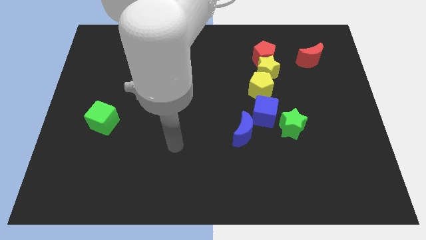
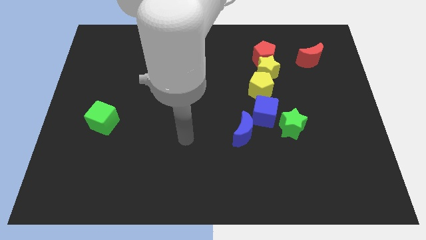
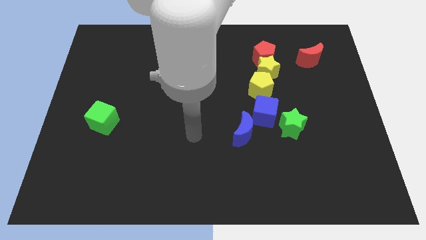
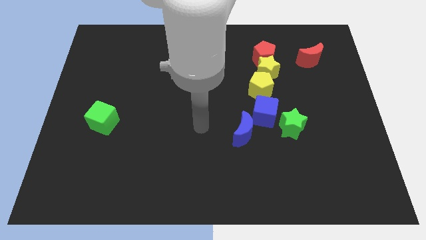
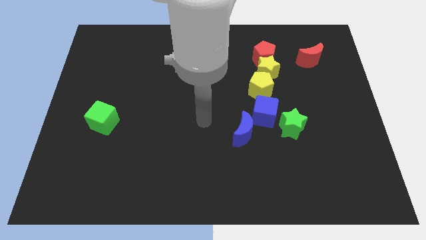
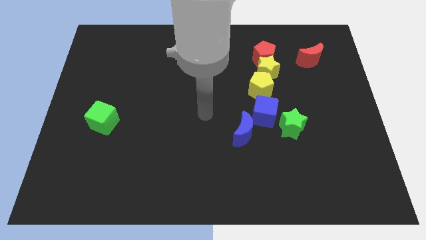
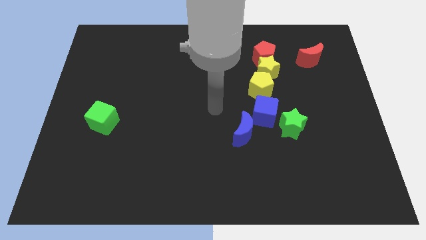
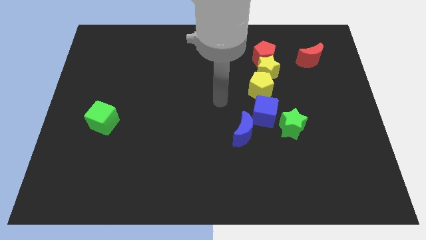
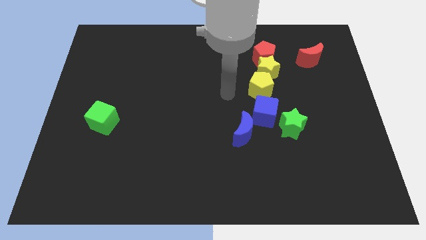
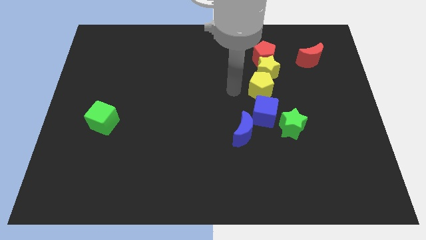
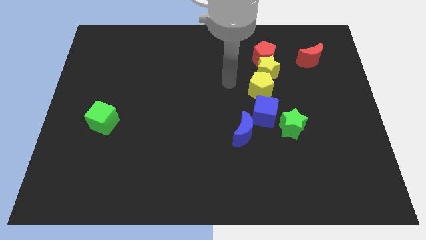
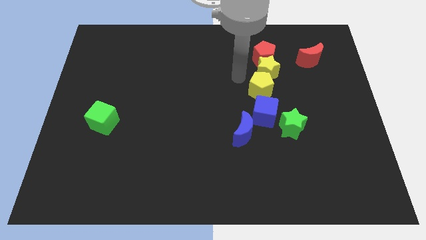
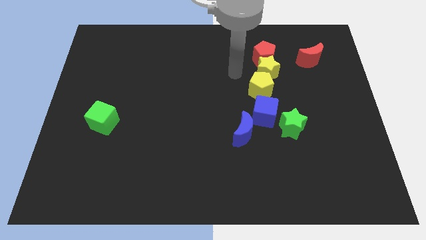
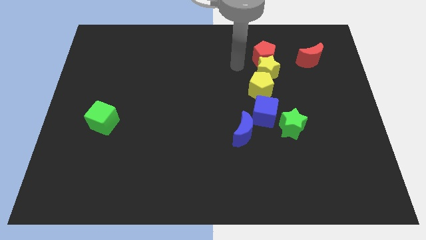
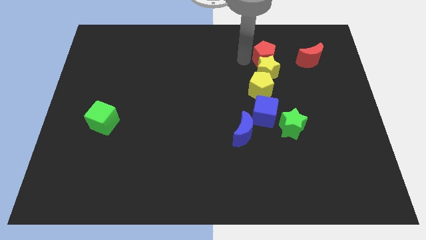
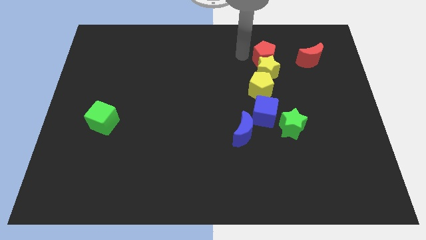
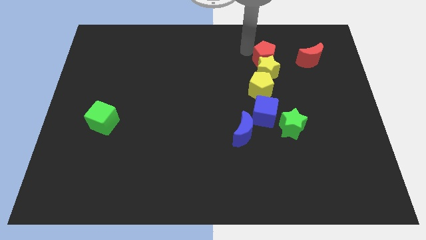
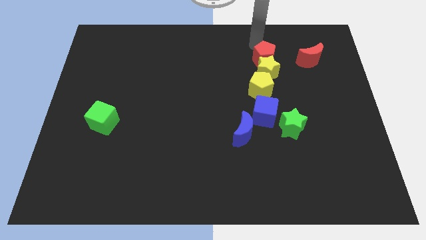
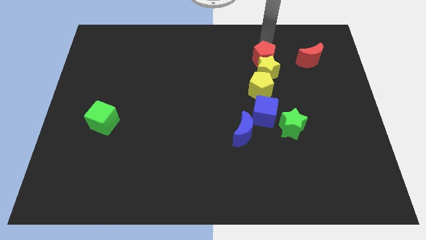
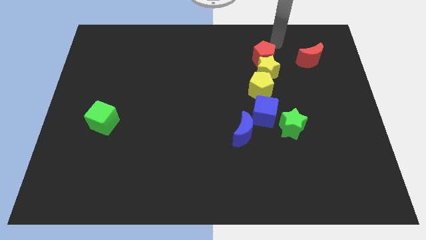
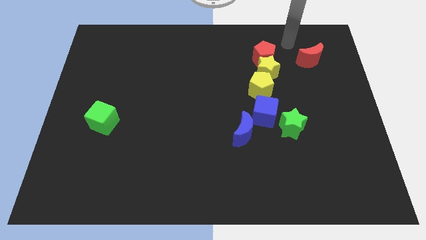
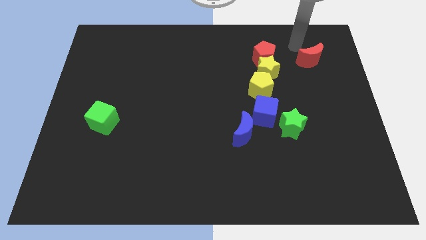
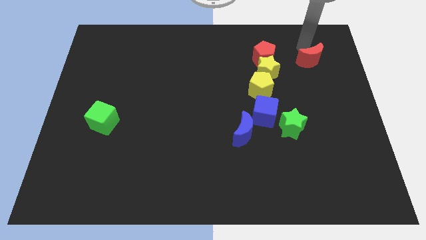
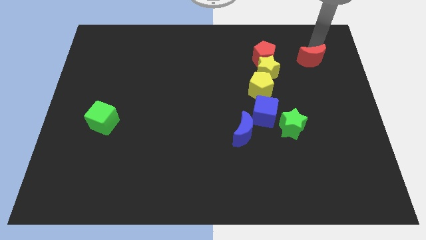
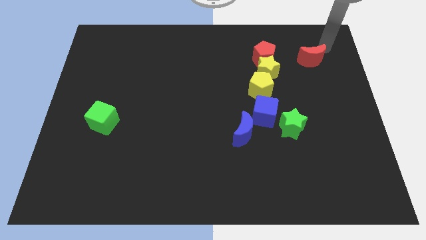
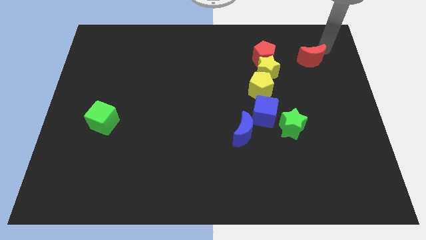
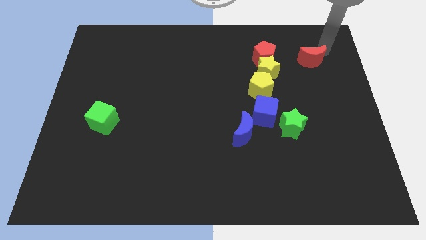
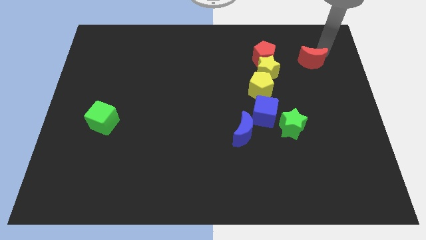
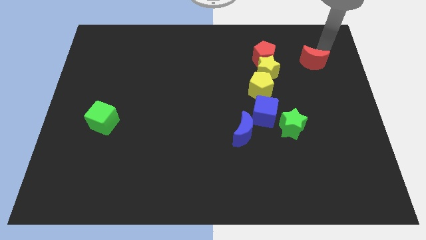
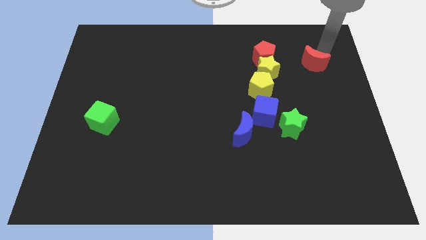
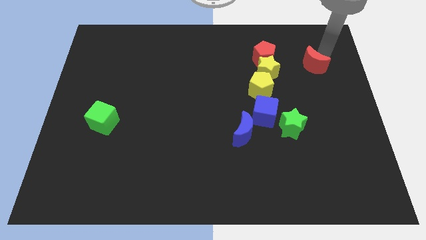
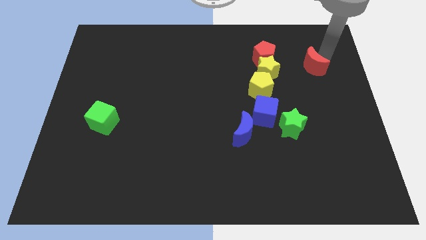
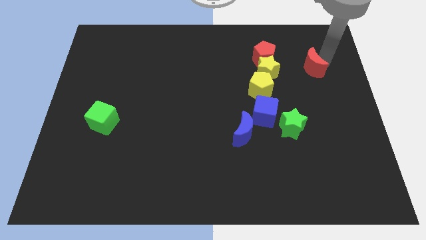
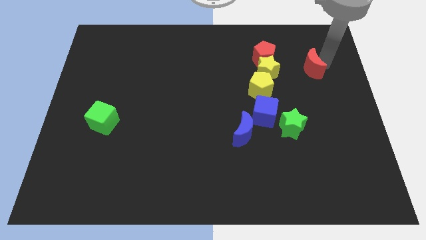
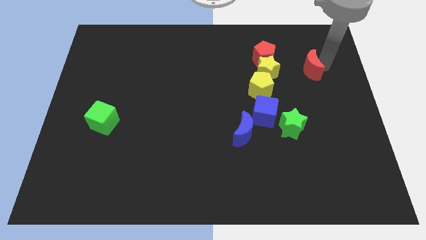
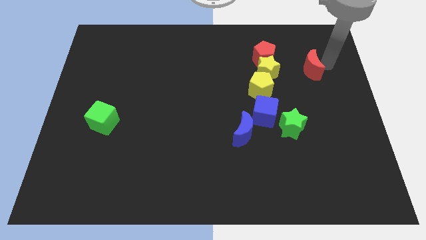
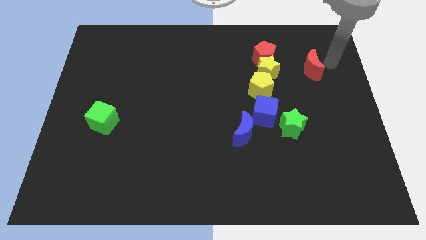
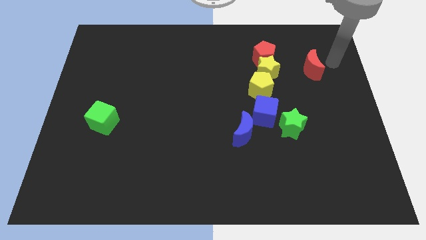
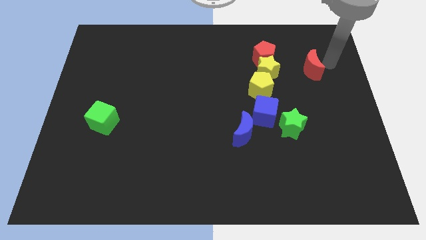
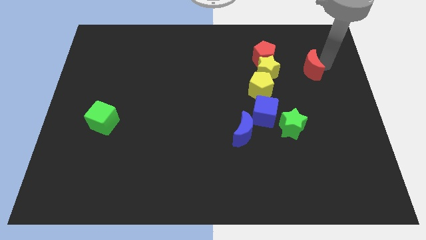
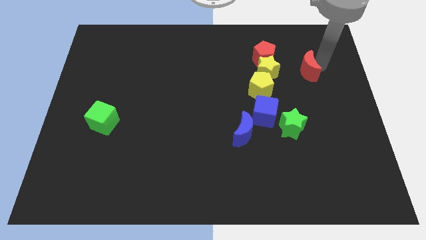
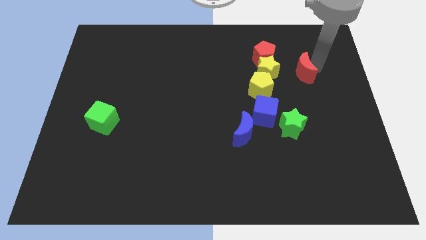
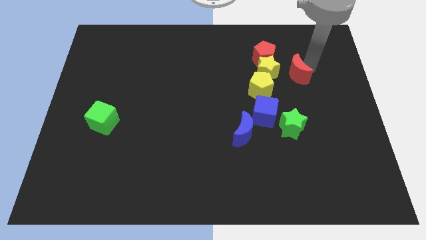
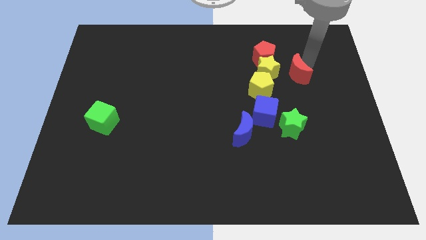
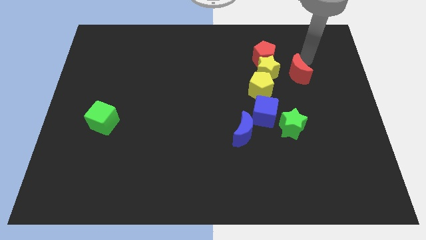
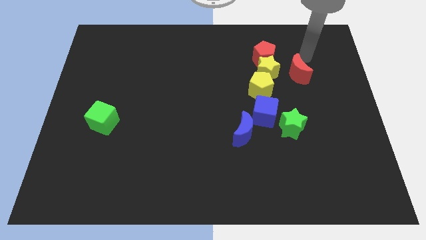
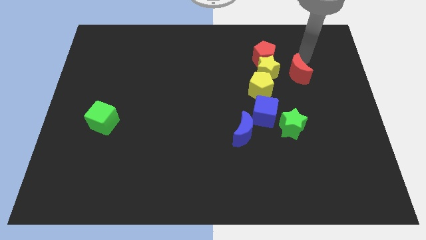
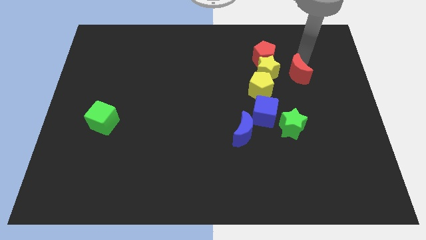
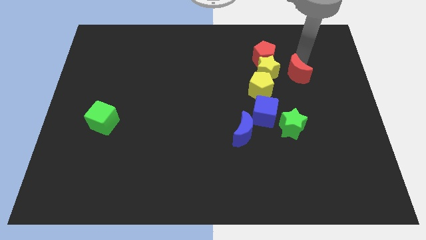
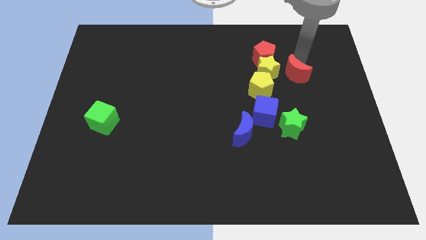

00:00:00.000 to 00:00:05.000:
push the red moon diagonally down and to the right of the yellow star

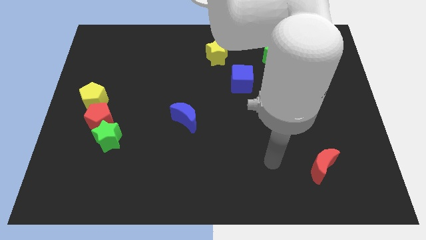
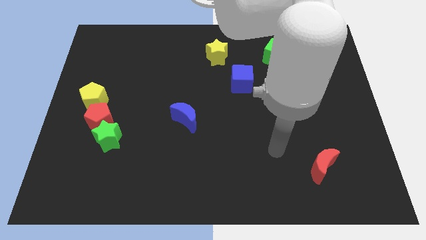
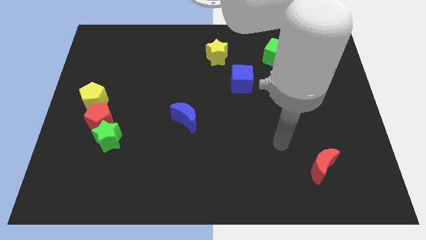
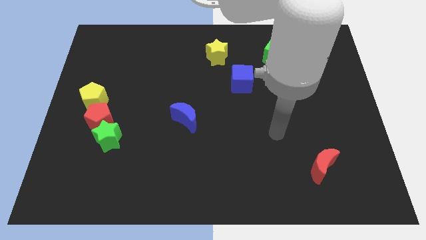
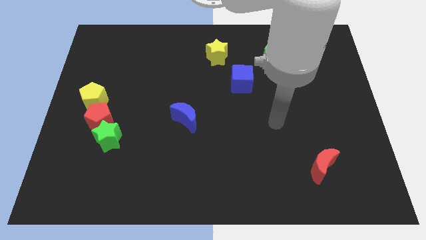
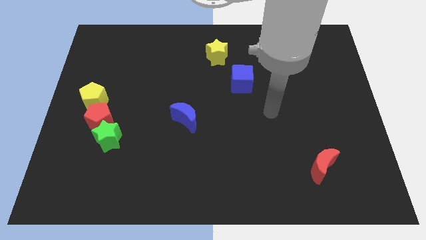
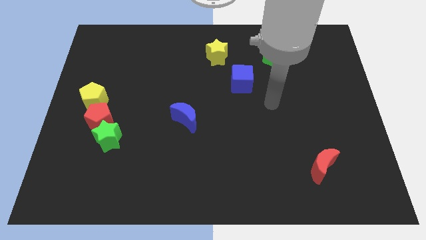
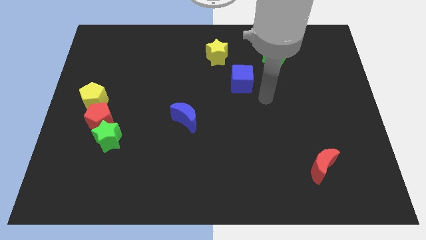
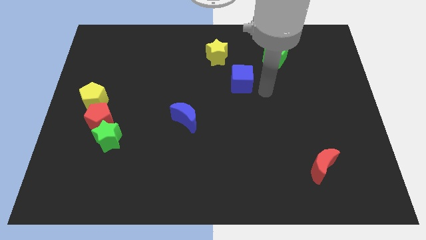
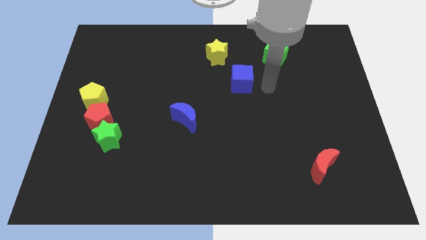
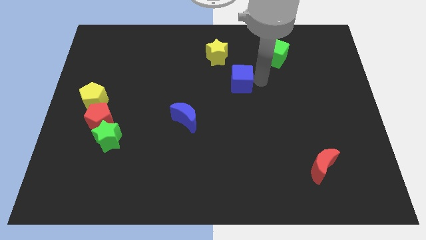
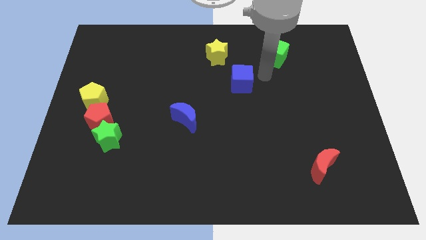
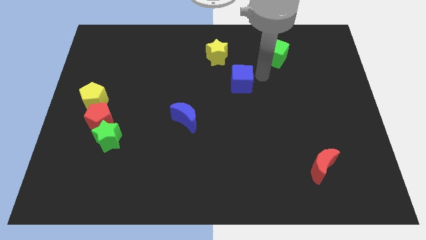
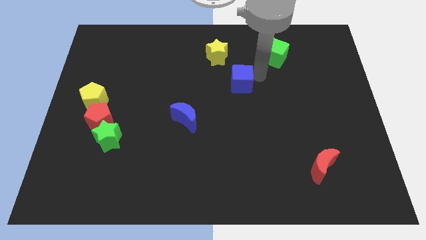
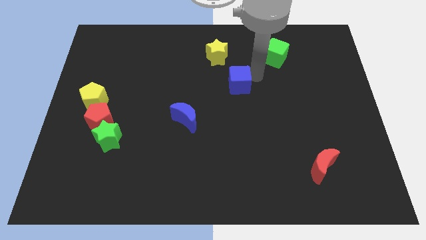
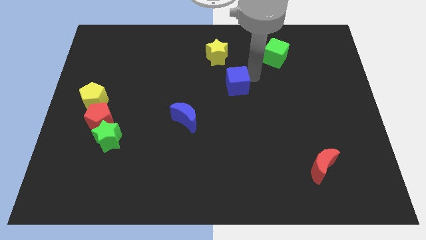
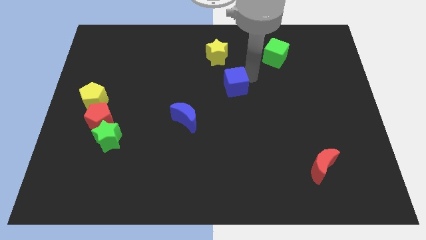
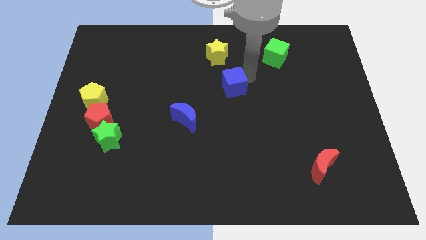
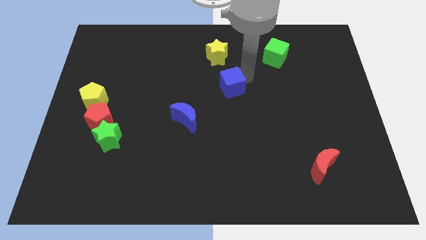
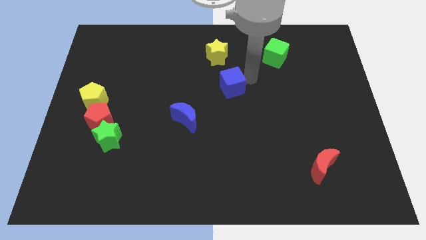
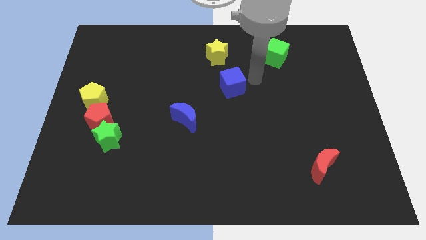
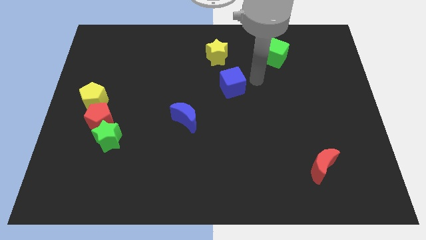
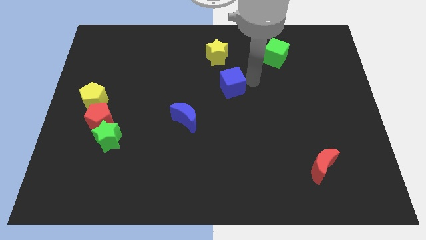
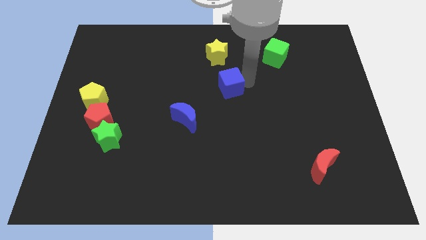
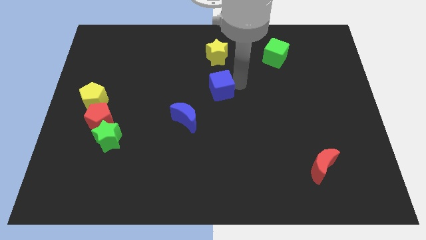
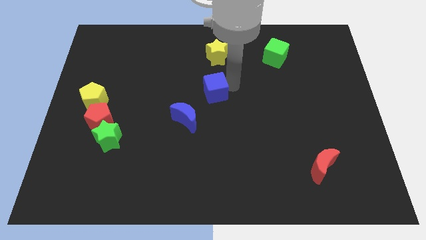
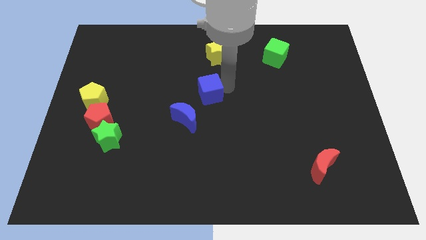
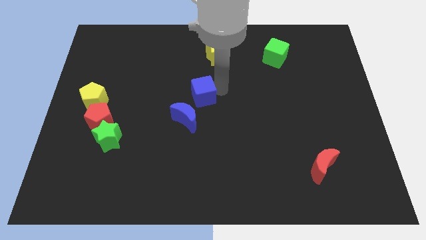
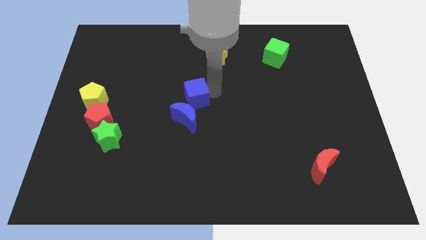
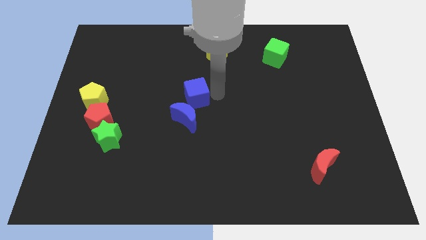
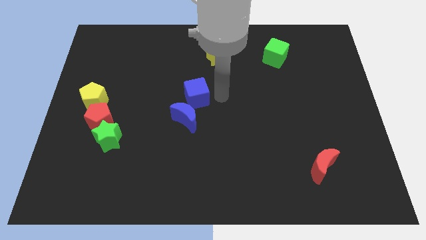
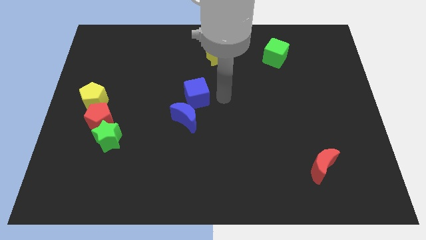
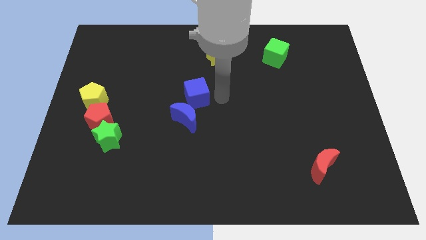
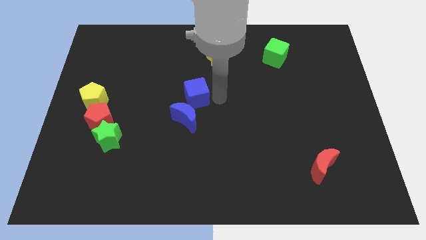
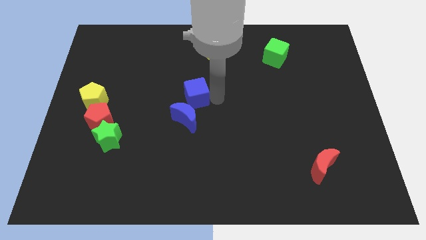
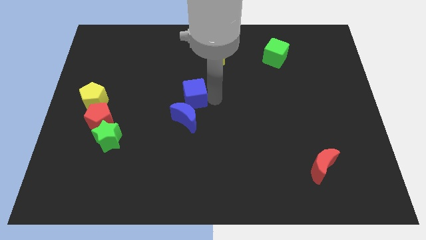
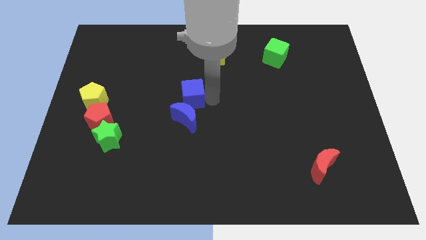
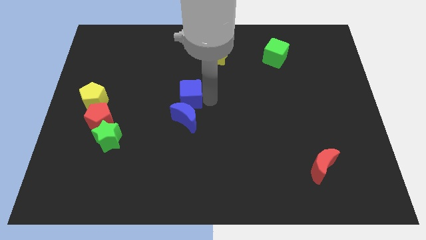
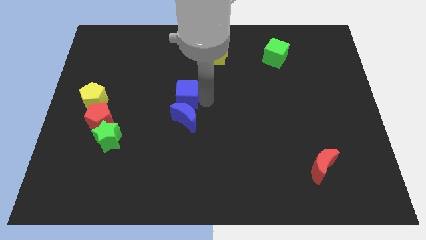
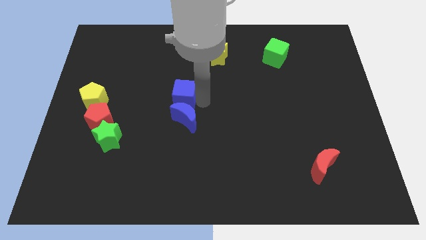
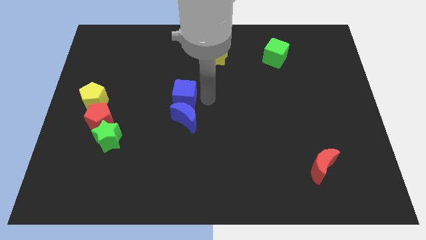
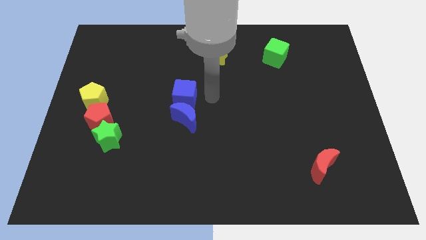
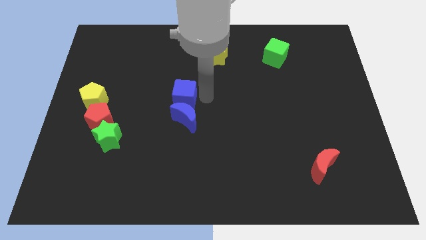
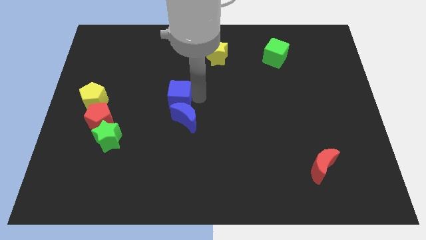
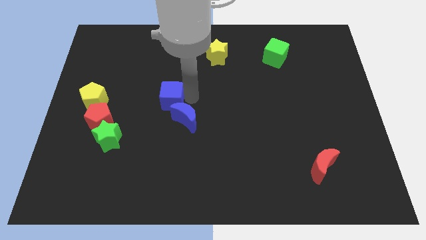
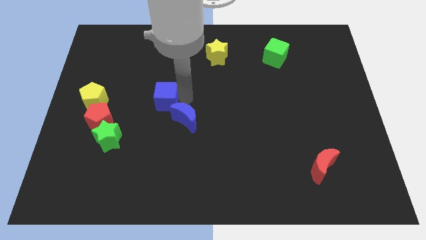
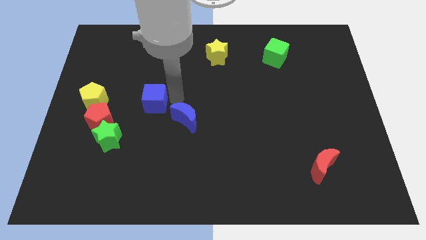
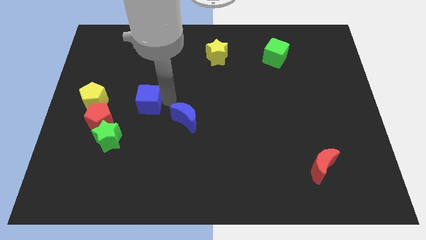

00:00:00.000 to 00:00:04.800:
slide the blue cube to the top right side of the red pentagon
